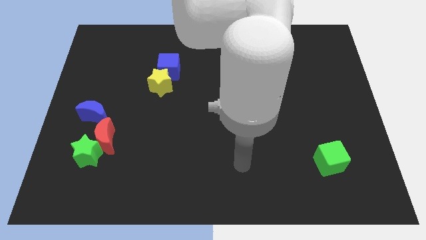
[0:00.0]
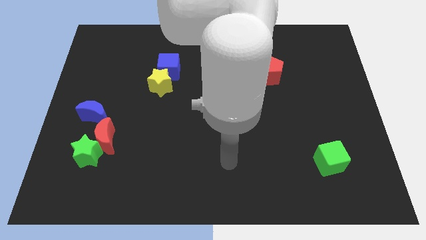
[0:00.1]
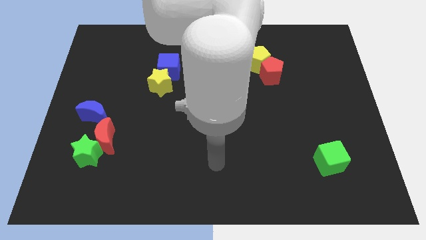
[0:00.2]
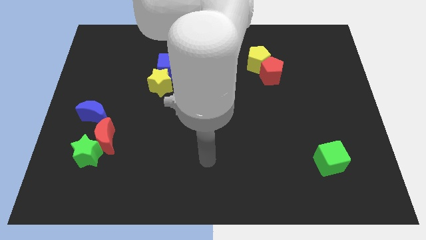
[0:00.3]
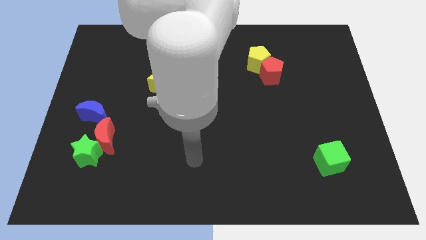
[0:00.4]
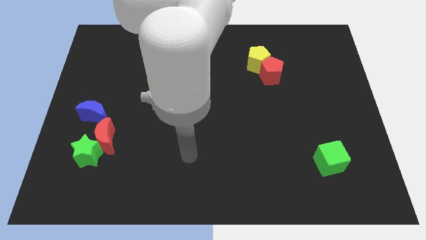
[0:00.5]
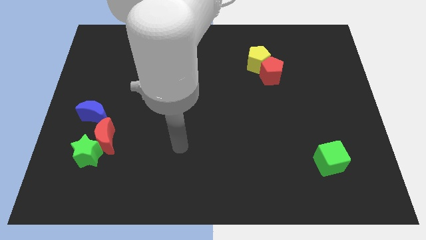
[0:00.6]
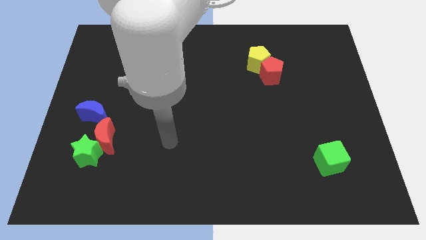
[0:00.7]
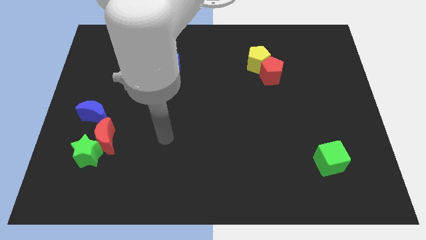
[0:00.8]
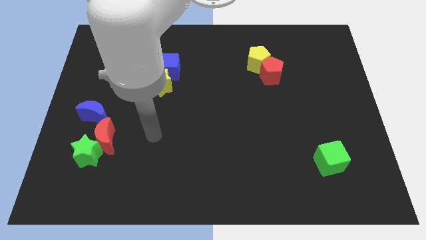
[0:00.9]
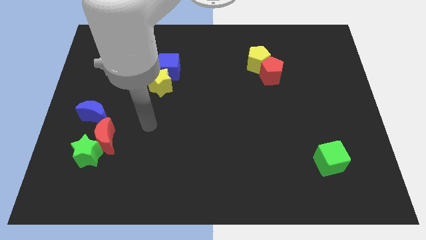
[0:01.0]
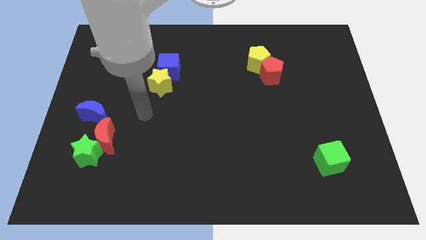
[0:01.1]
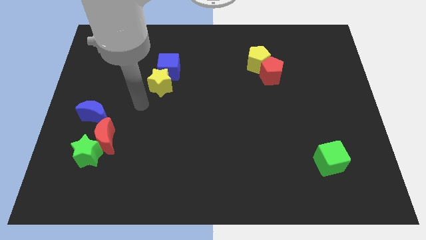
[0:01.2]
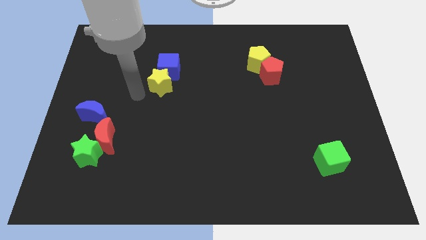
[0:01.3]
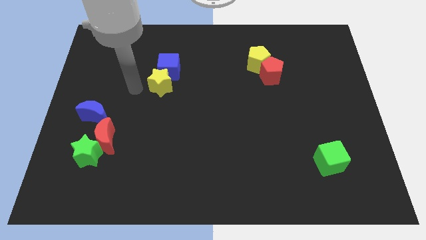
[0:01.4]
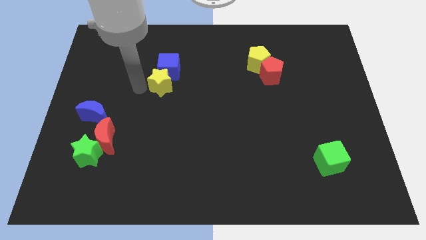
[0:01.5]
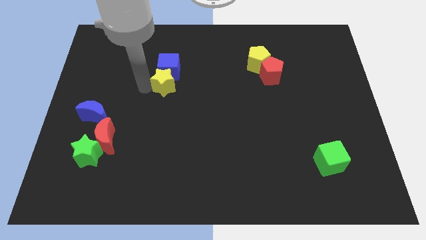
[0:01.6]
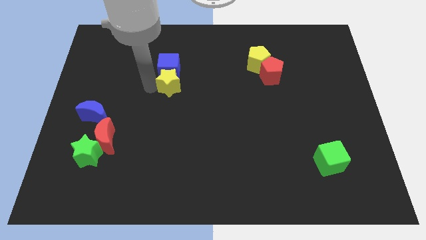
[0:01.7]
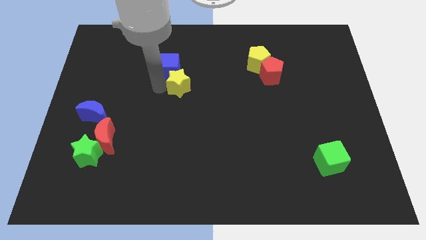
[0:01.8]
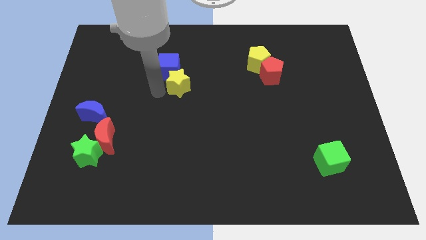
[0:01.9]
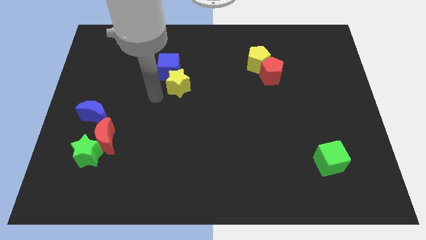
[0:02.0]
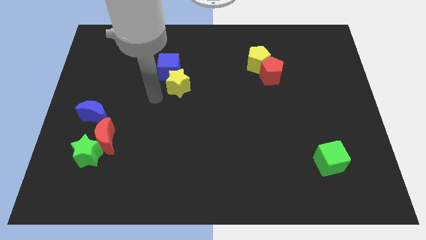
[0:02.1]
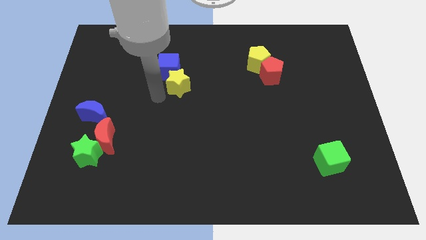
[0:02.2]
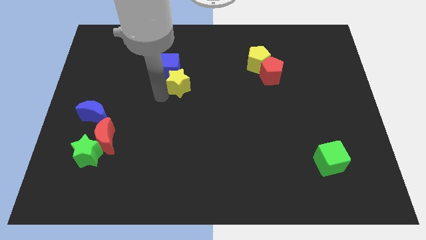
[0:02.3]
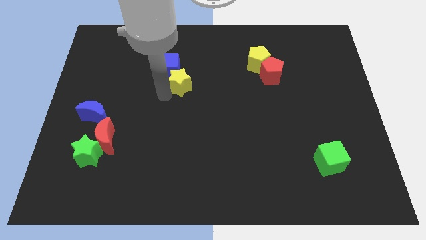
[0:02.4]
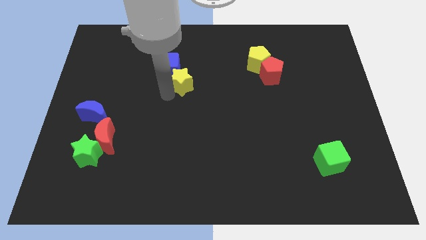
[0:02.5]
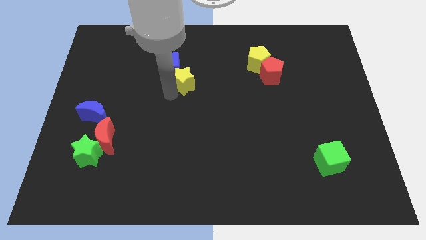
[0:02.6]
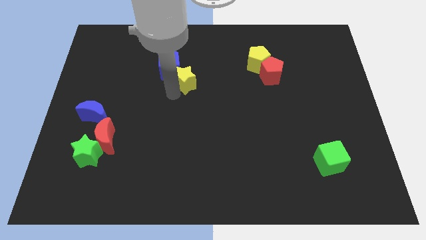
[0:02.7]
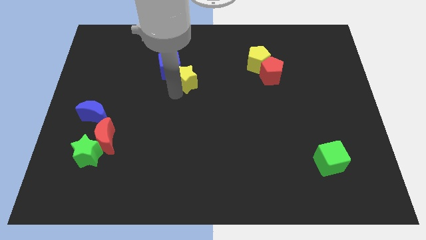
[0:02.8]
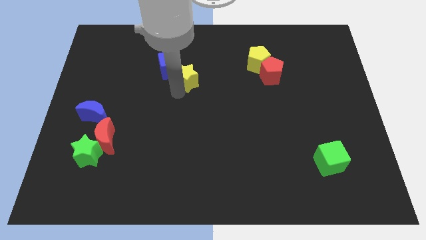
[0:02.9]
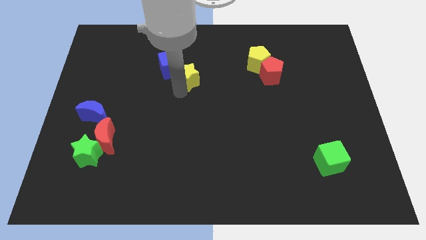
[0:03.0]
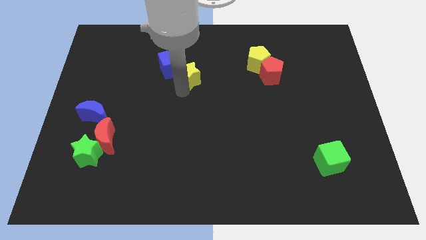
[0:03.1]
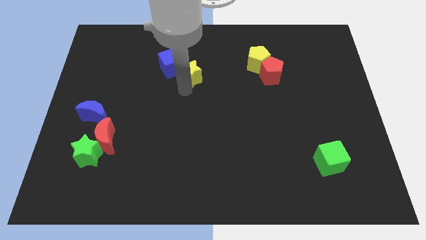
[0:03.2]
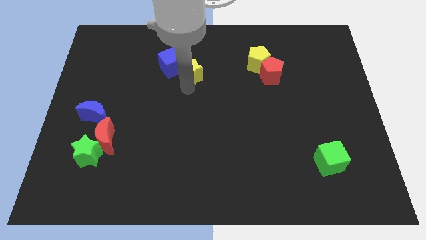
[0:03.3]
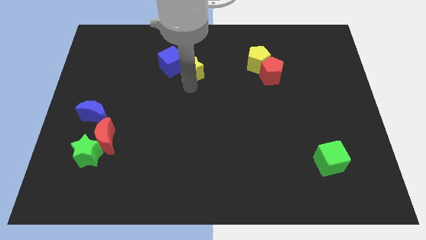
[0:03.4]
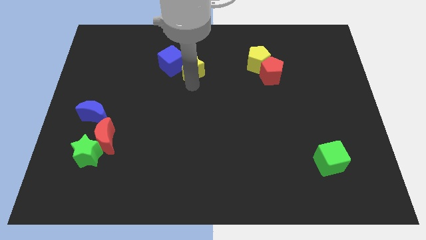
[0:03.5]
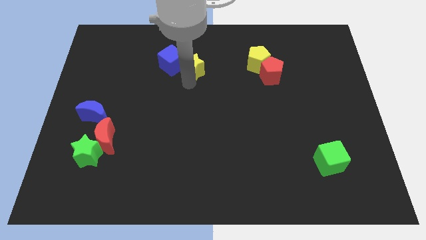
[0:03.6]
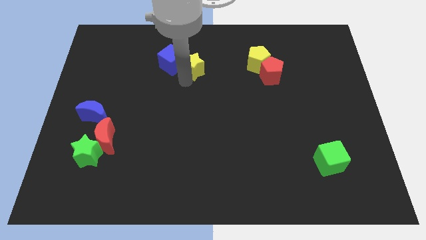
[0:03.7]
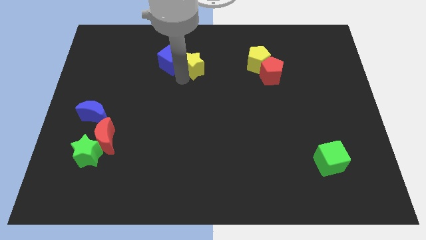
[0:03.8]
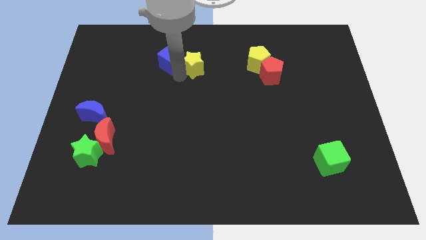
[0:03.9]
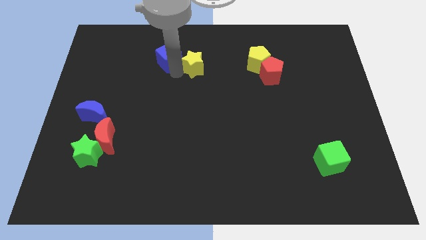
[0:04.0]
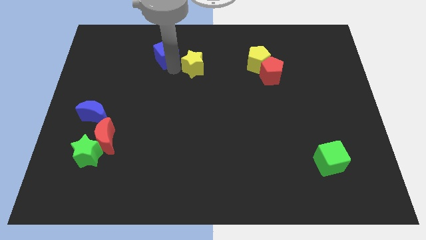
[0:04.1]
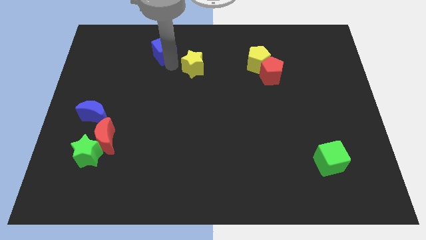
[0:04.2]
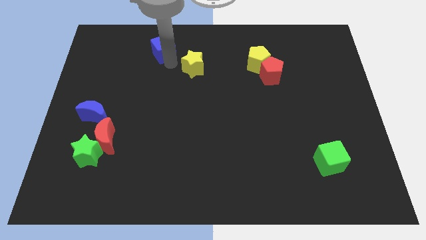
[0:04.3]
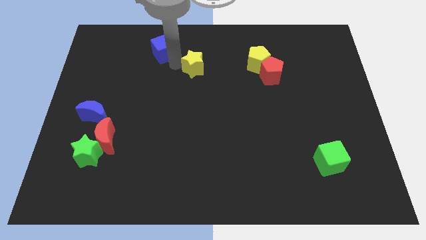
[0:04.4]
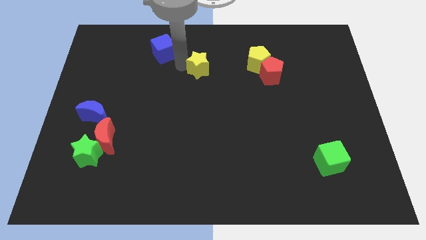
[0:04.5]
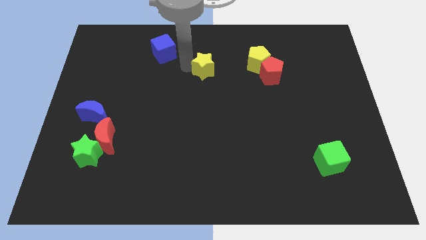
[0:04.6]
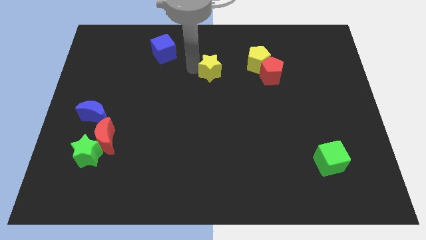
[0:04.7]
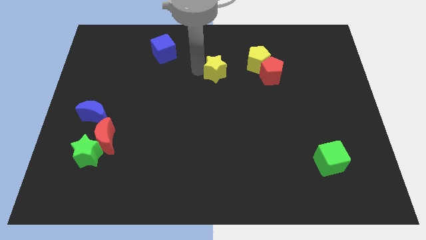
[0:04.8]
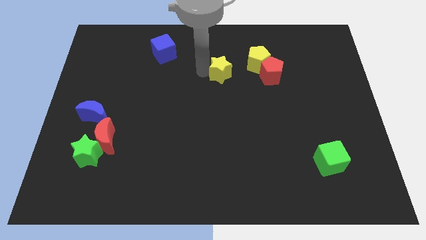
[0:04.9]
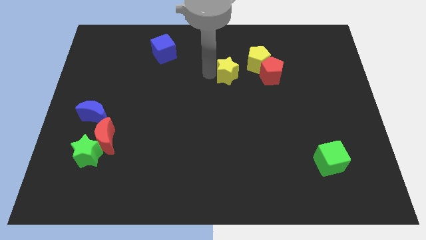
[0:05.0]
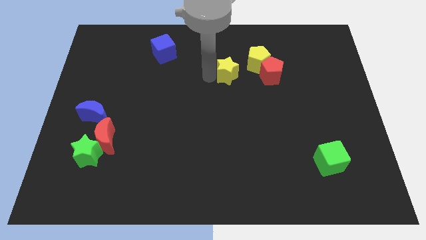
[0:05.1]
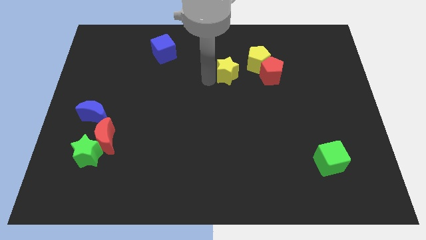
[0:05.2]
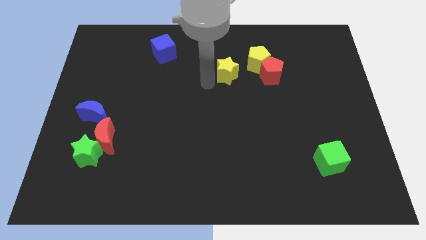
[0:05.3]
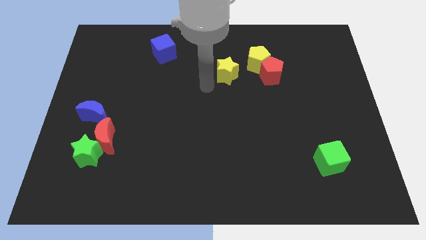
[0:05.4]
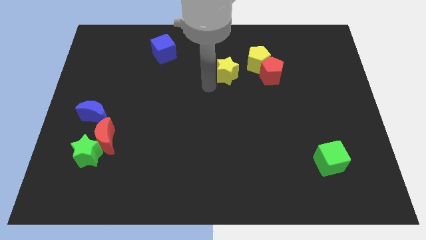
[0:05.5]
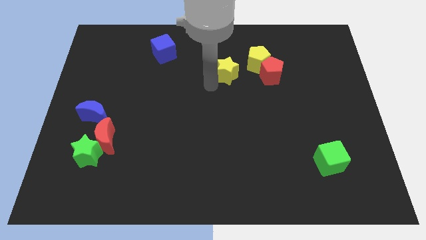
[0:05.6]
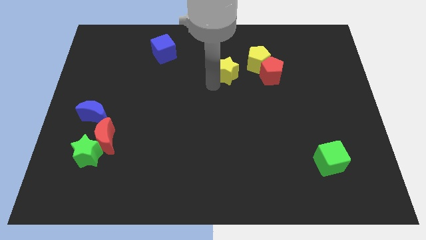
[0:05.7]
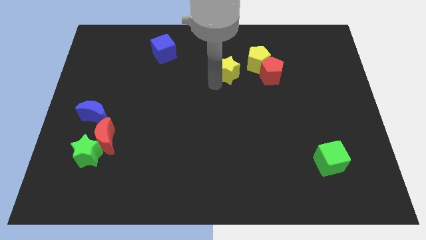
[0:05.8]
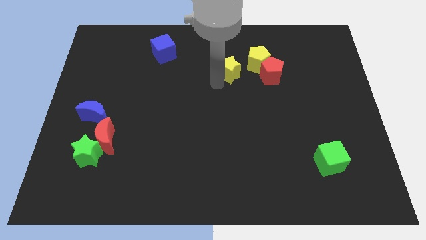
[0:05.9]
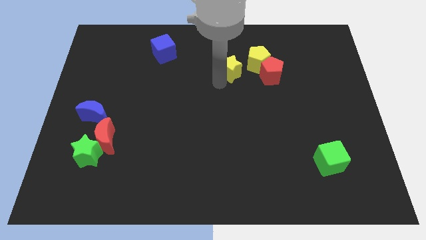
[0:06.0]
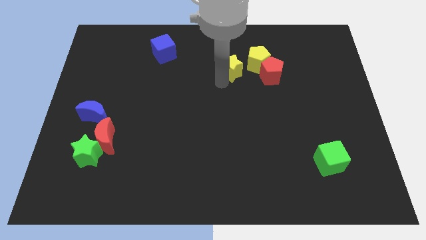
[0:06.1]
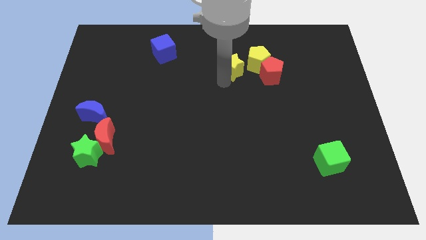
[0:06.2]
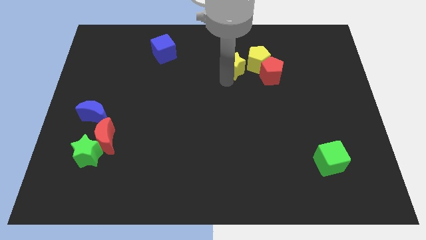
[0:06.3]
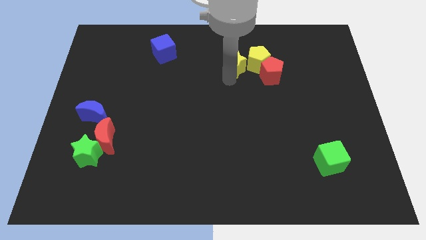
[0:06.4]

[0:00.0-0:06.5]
put the yellow star towards the yellow pentagon
